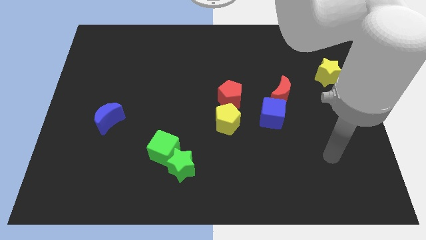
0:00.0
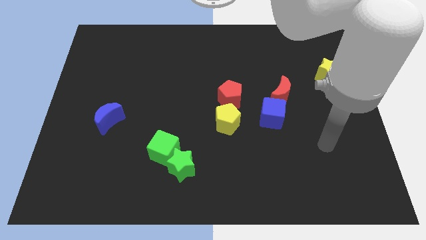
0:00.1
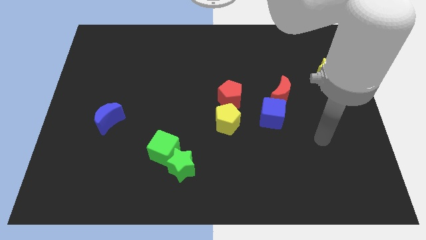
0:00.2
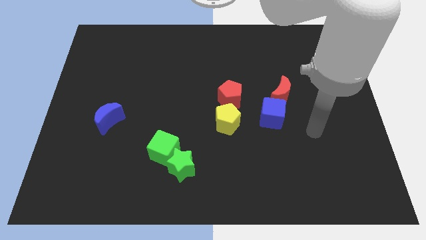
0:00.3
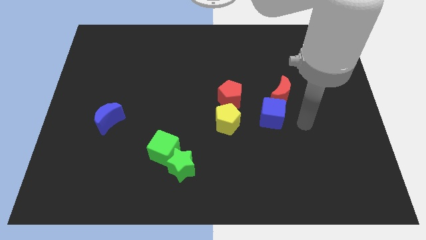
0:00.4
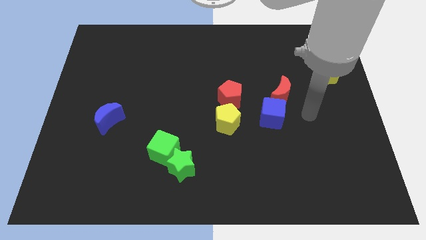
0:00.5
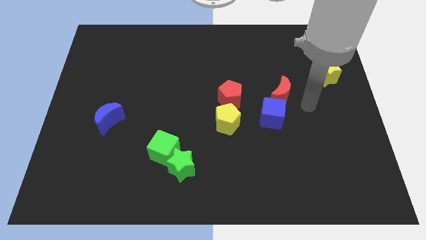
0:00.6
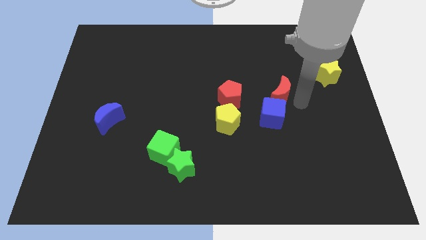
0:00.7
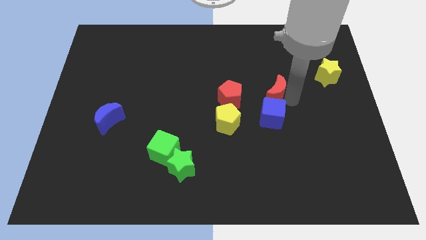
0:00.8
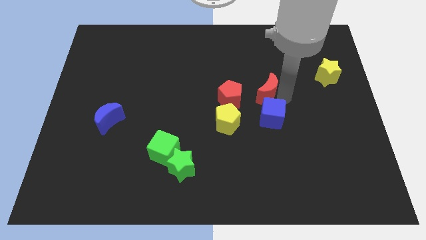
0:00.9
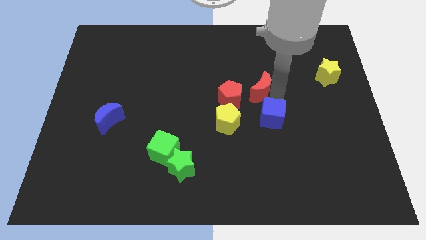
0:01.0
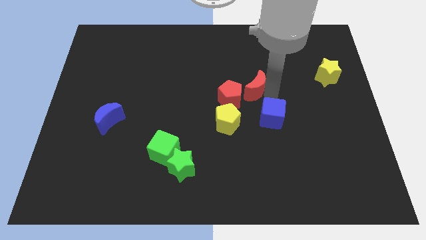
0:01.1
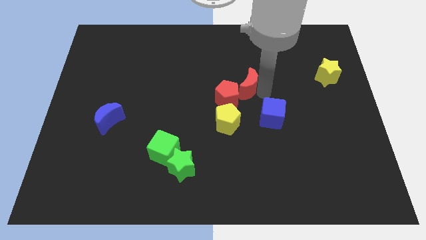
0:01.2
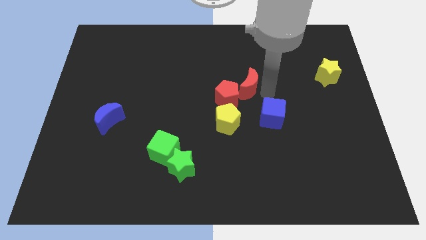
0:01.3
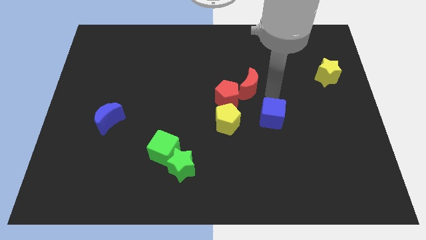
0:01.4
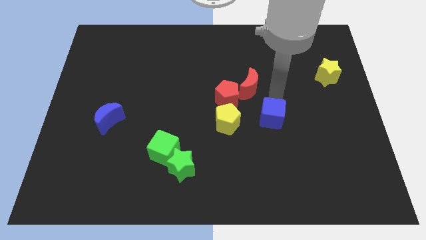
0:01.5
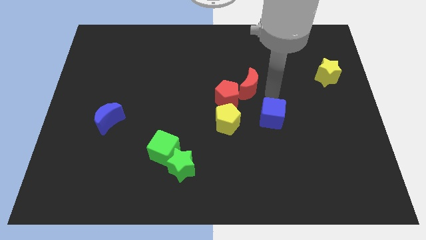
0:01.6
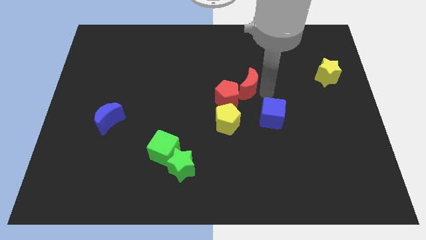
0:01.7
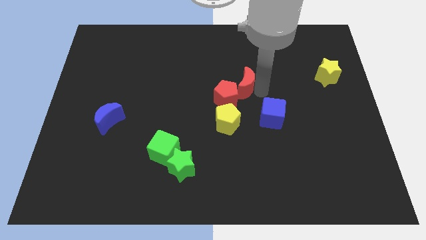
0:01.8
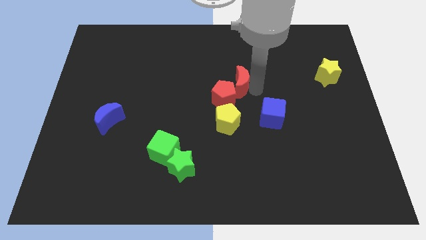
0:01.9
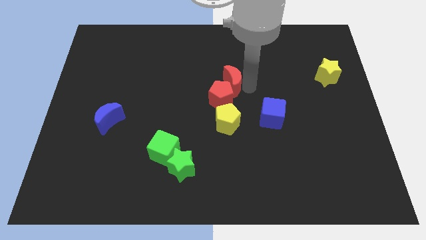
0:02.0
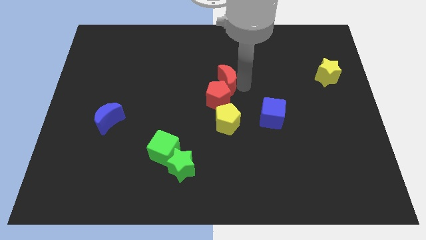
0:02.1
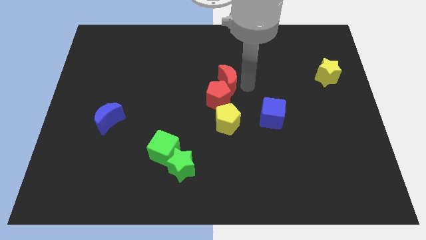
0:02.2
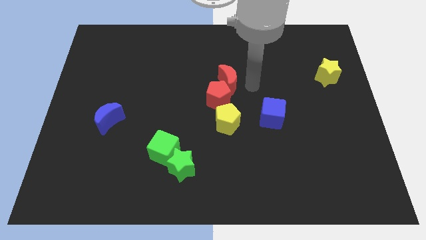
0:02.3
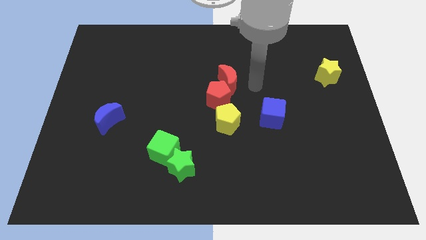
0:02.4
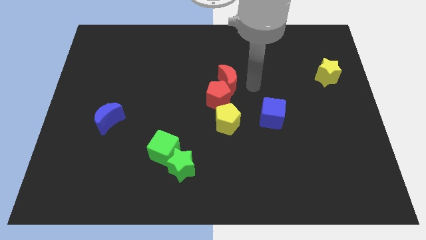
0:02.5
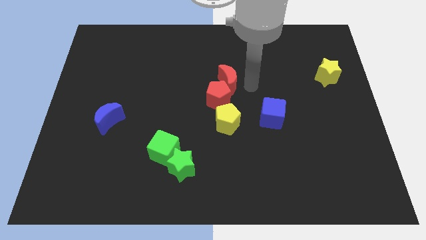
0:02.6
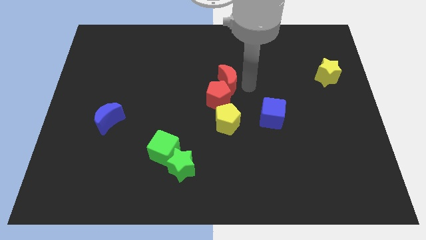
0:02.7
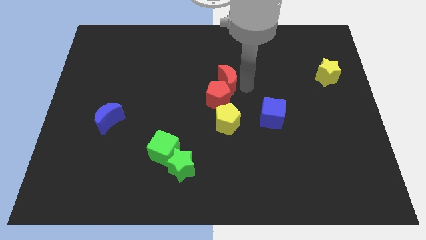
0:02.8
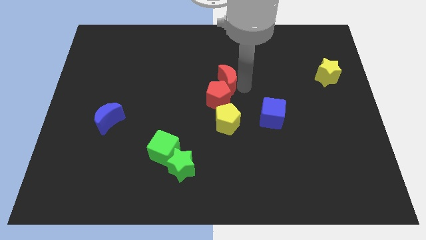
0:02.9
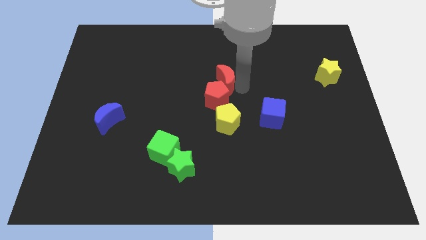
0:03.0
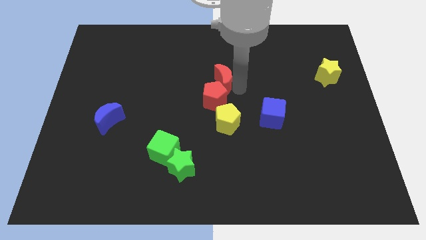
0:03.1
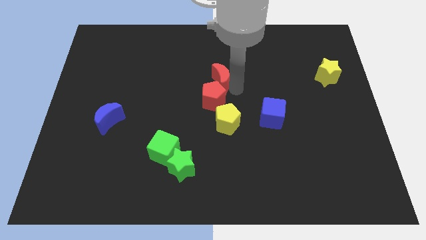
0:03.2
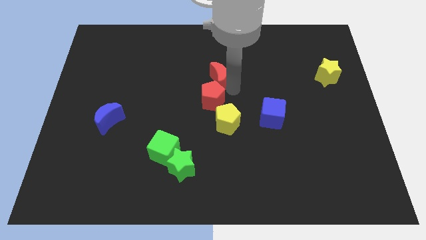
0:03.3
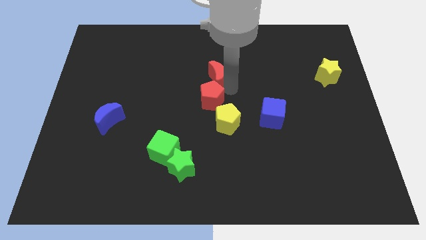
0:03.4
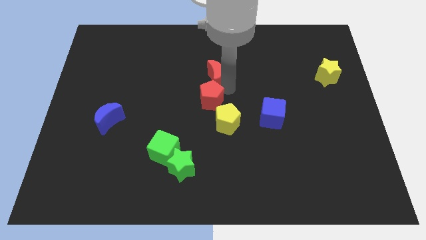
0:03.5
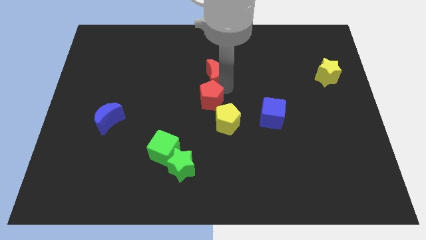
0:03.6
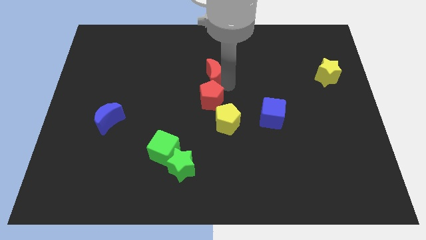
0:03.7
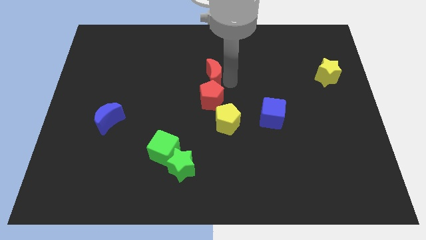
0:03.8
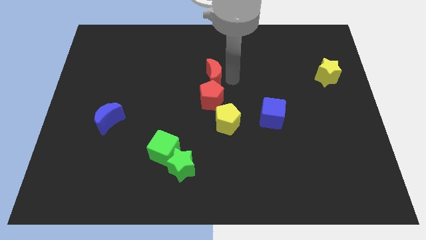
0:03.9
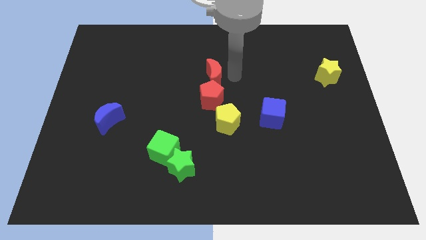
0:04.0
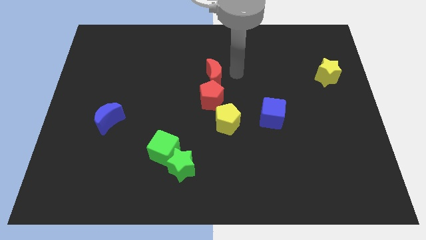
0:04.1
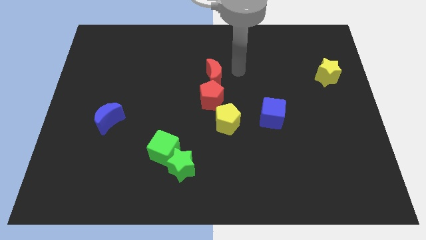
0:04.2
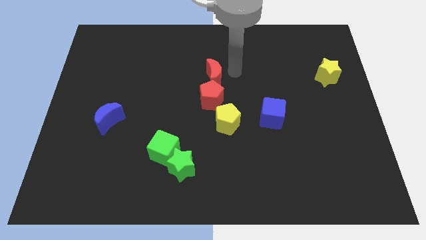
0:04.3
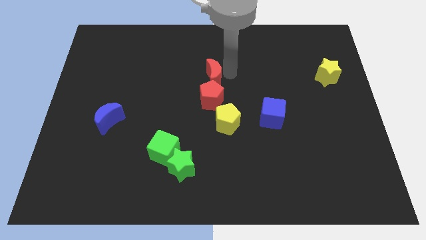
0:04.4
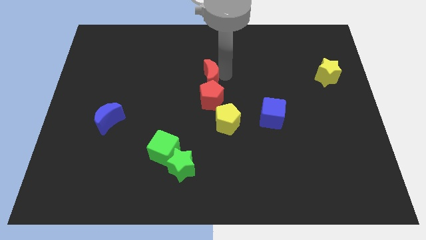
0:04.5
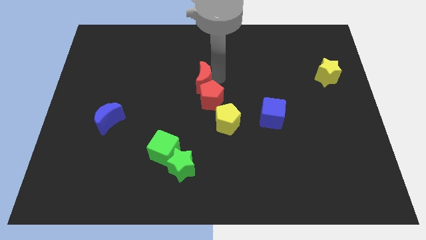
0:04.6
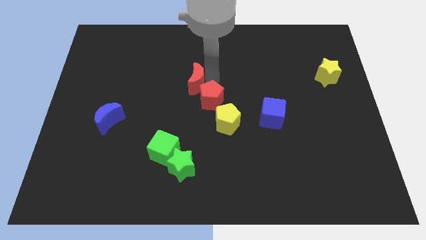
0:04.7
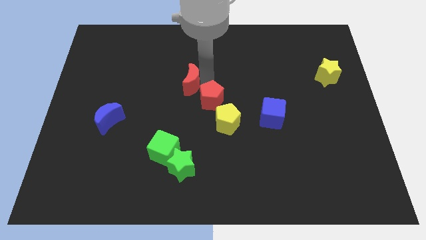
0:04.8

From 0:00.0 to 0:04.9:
push the red moon left

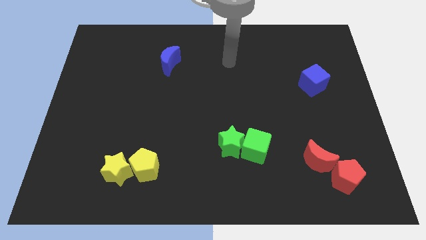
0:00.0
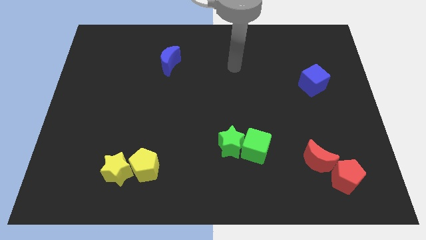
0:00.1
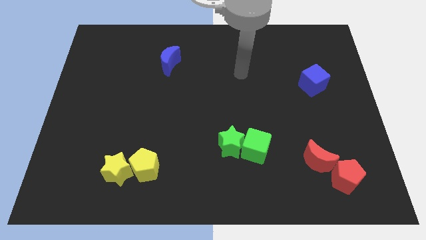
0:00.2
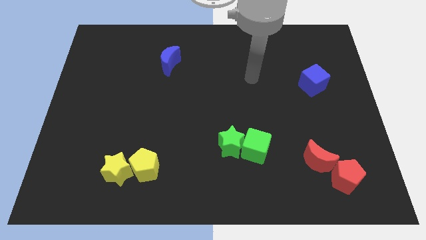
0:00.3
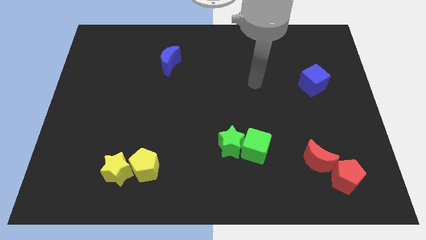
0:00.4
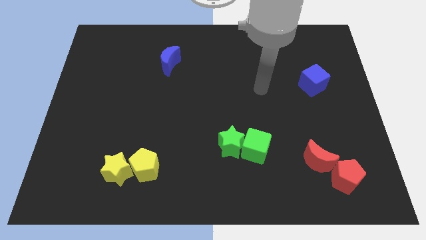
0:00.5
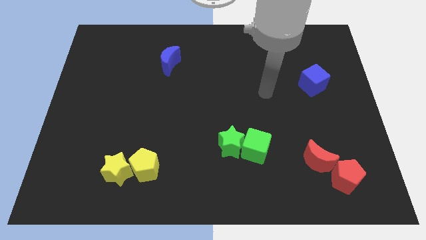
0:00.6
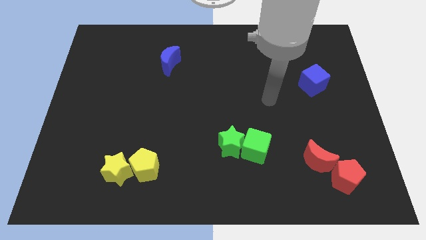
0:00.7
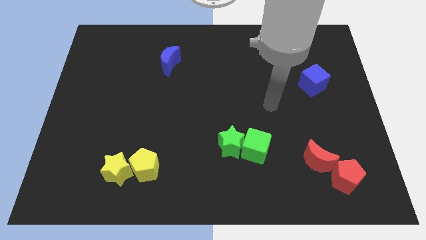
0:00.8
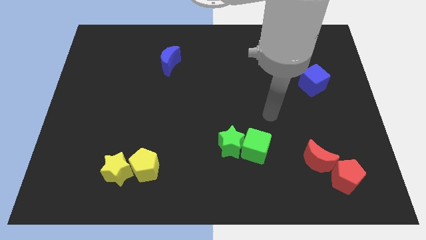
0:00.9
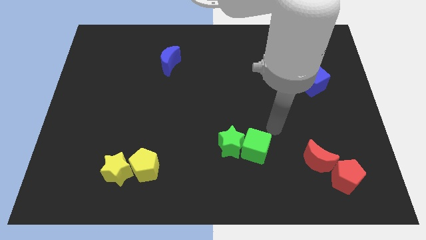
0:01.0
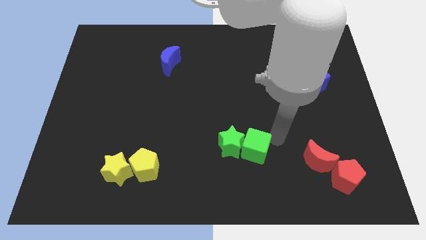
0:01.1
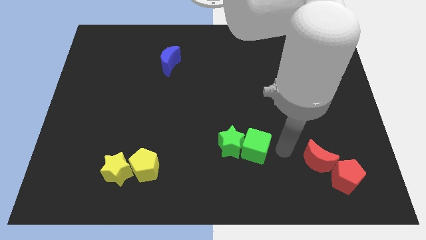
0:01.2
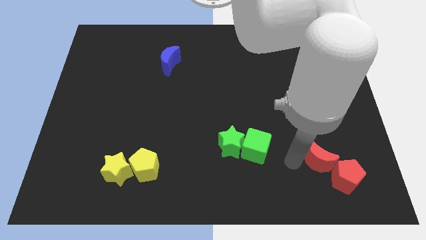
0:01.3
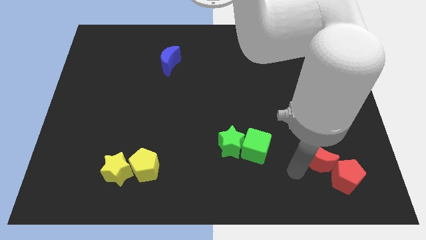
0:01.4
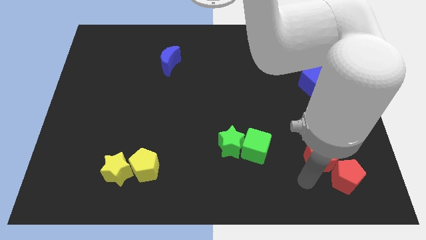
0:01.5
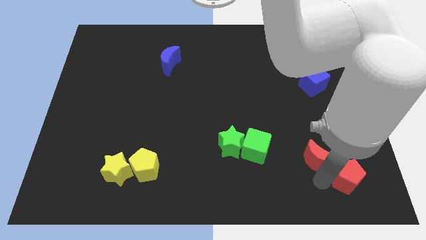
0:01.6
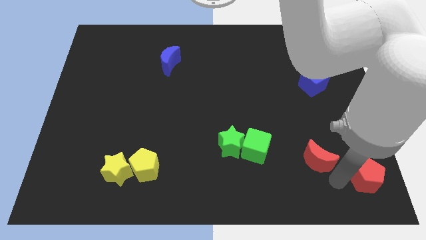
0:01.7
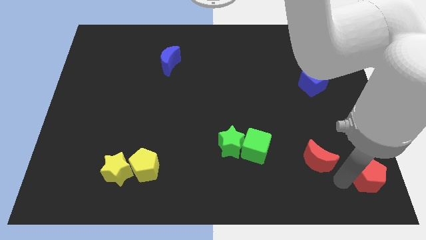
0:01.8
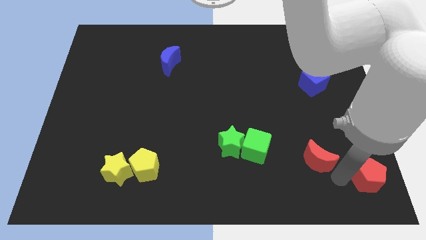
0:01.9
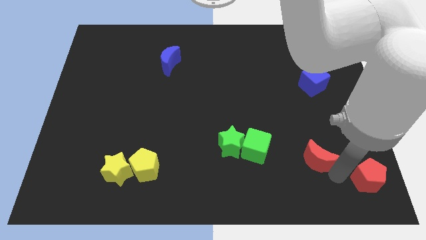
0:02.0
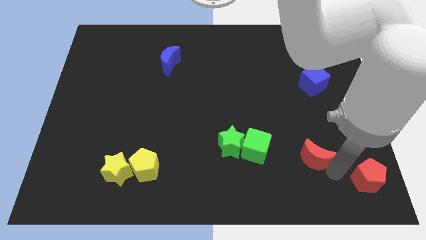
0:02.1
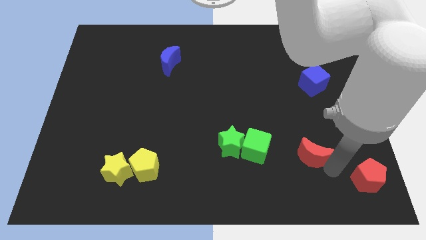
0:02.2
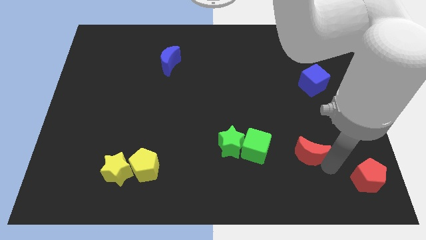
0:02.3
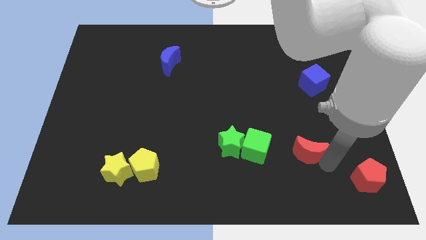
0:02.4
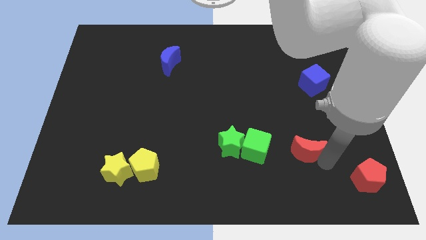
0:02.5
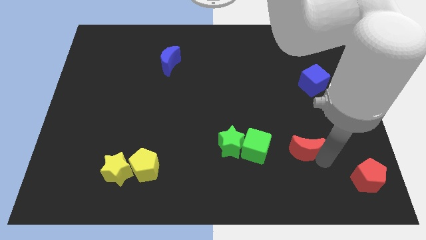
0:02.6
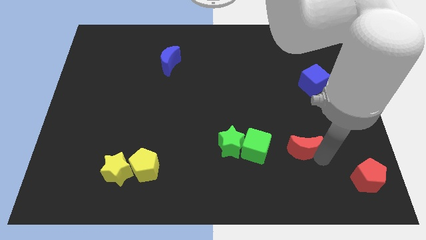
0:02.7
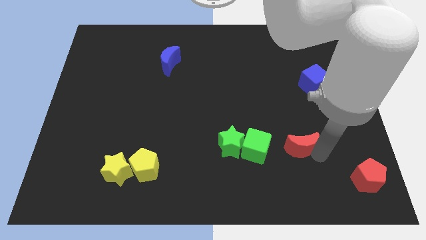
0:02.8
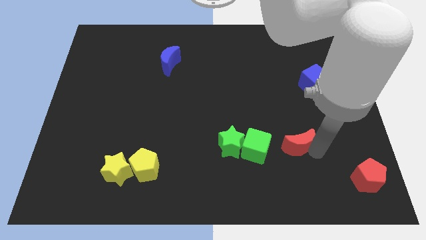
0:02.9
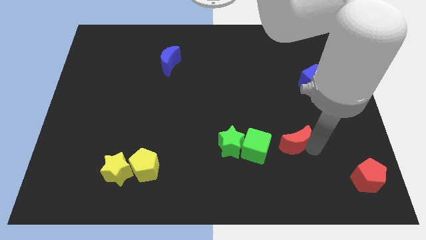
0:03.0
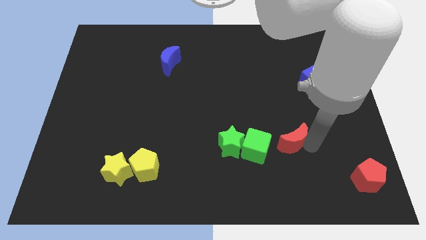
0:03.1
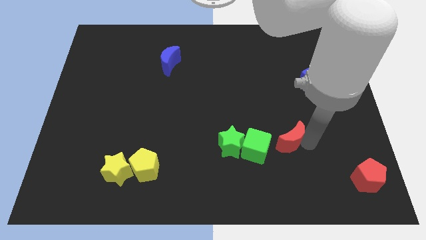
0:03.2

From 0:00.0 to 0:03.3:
move the red moon slightly up and to the left
